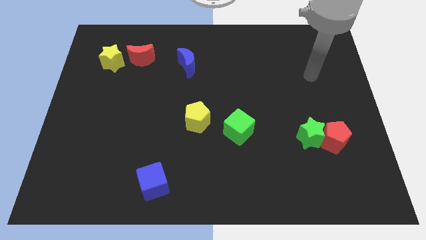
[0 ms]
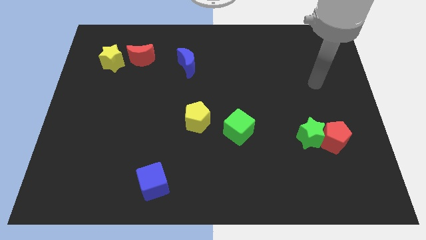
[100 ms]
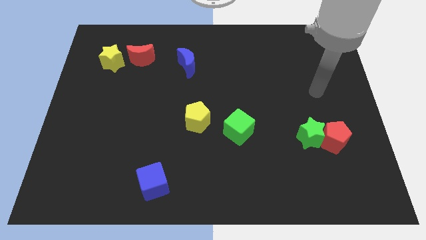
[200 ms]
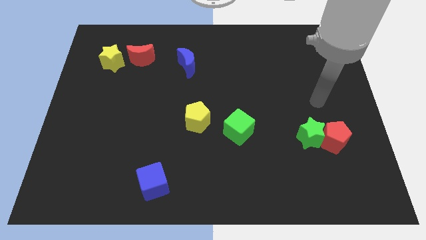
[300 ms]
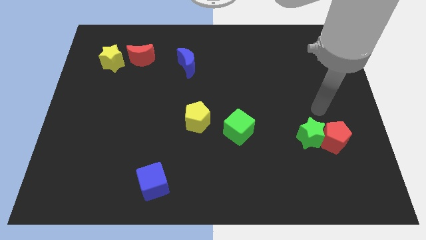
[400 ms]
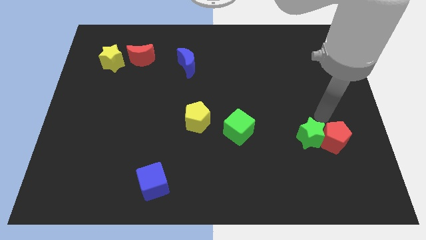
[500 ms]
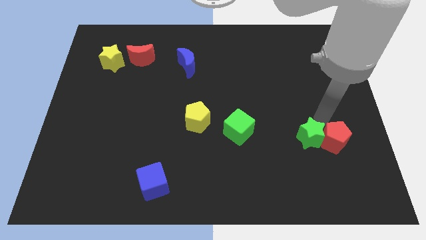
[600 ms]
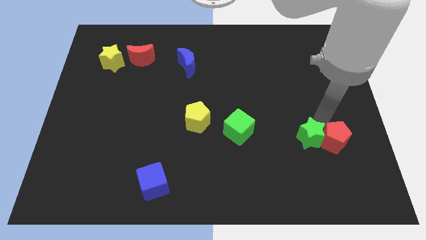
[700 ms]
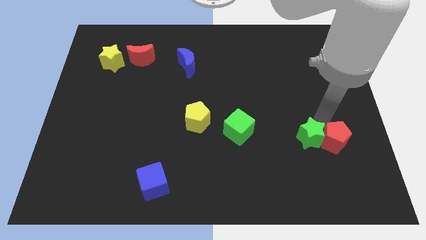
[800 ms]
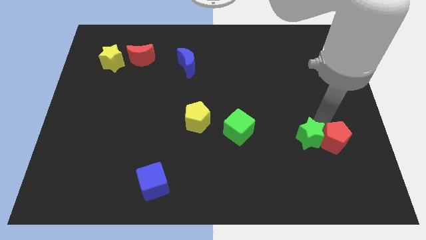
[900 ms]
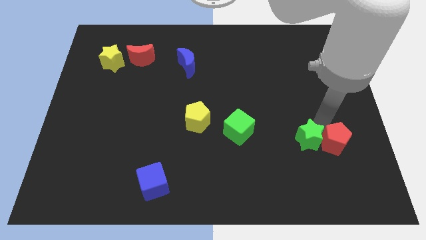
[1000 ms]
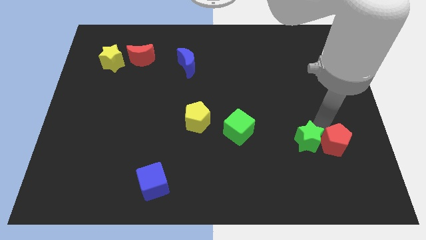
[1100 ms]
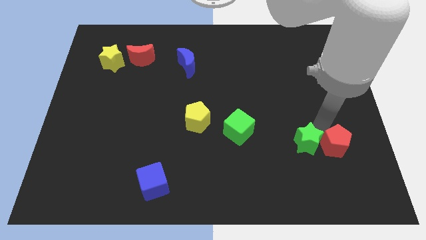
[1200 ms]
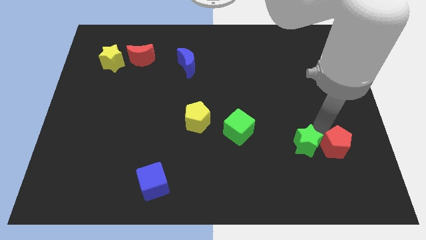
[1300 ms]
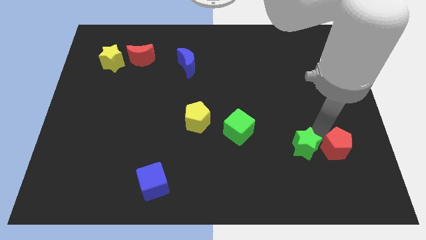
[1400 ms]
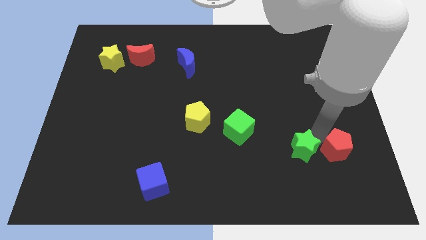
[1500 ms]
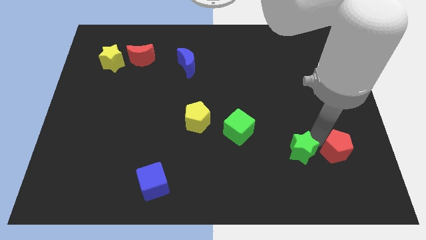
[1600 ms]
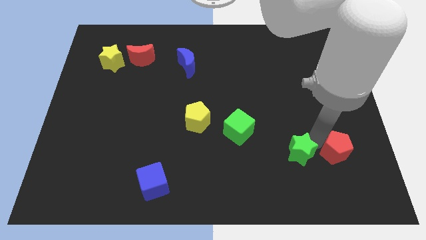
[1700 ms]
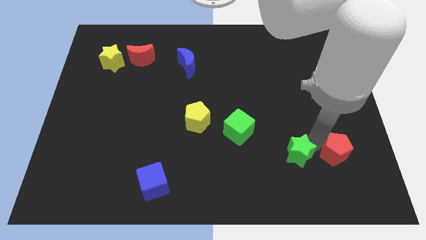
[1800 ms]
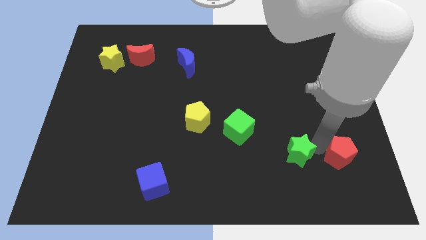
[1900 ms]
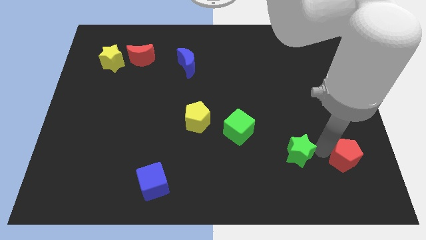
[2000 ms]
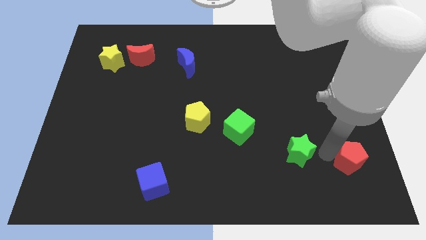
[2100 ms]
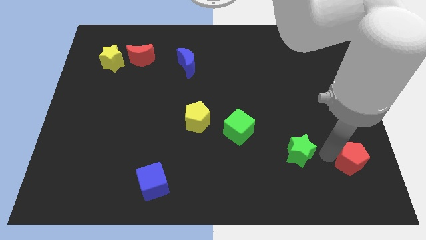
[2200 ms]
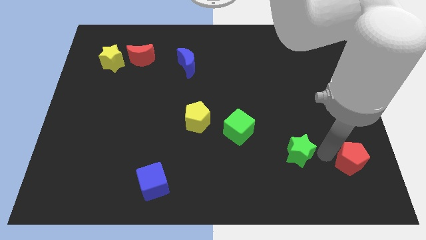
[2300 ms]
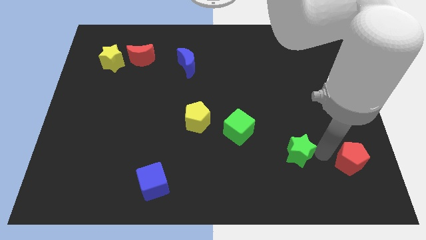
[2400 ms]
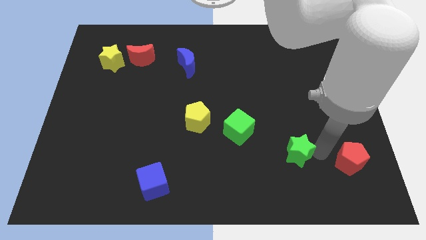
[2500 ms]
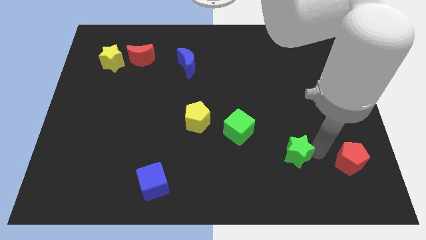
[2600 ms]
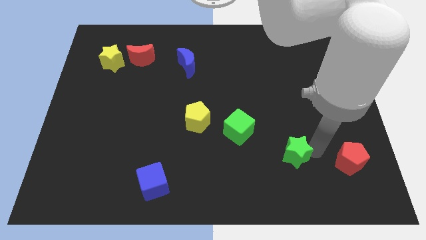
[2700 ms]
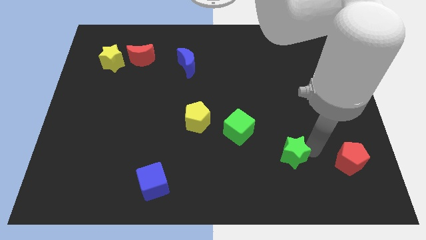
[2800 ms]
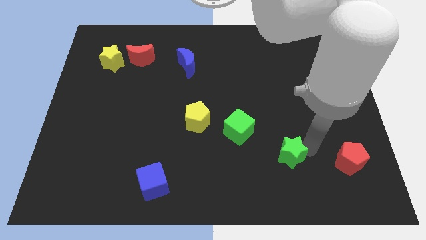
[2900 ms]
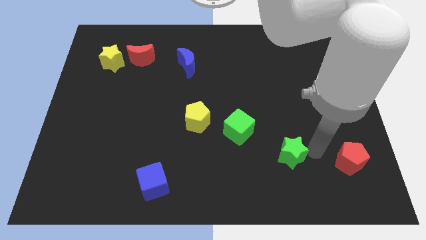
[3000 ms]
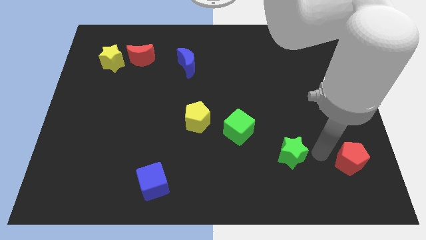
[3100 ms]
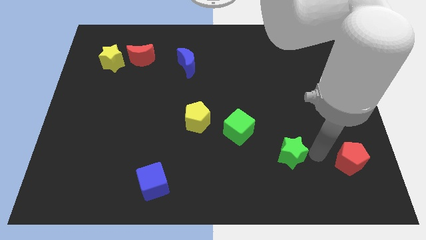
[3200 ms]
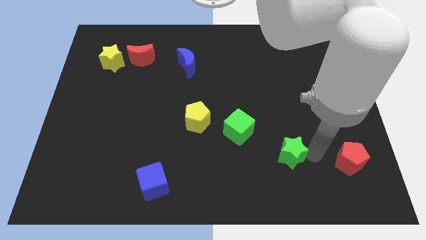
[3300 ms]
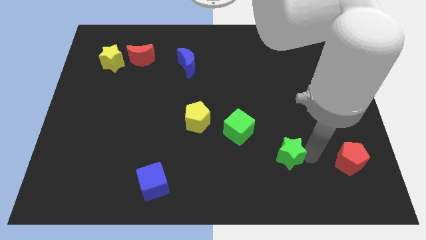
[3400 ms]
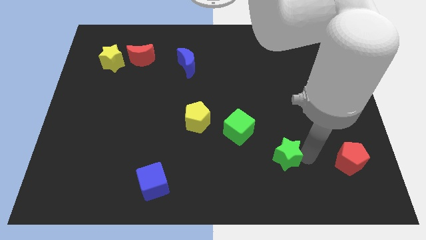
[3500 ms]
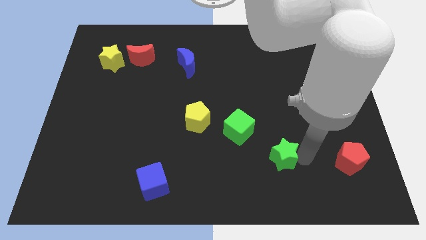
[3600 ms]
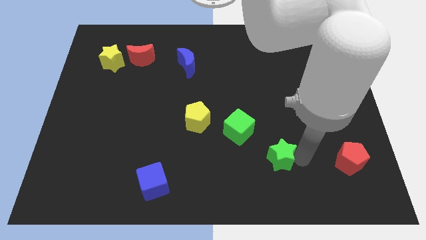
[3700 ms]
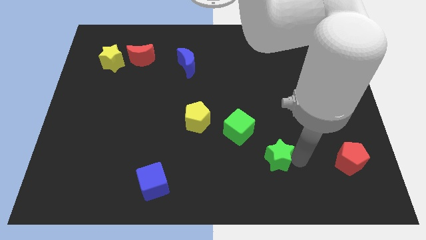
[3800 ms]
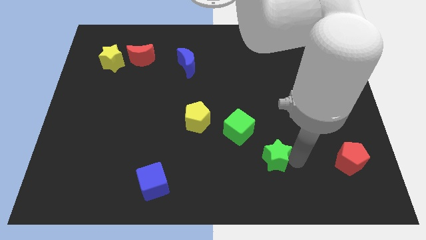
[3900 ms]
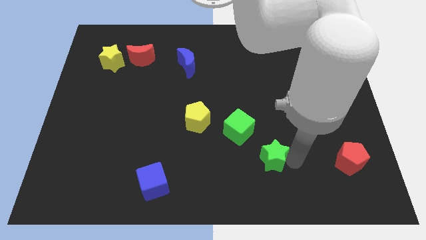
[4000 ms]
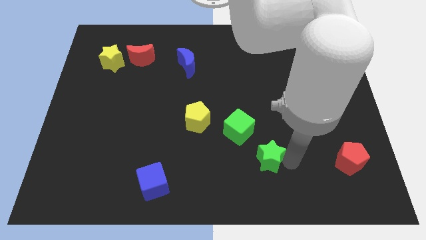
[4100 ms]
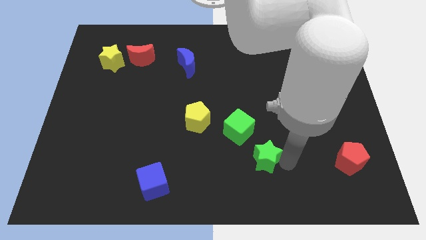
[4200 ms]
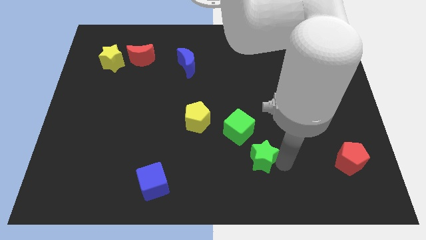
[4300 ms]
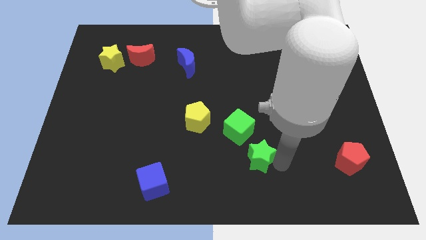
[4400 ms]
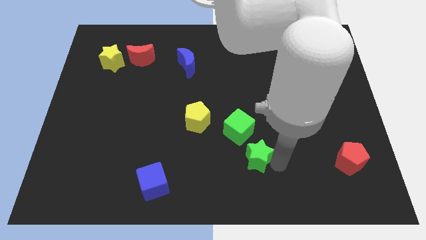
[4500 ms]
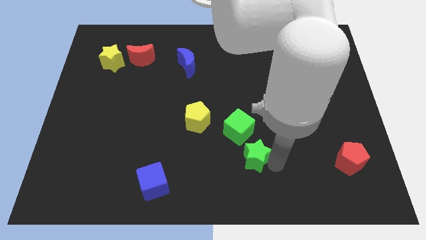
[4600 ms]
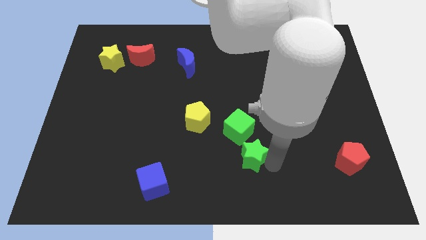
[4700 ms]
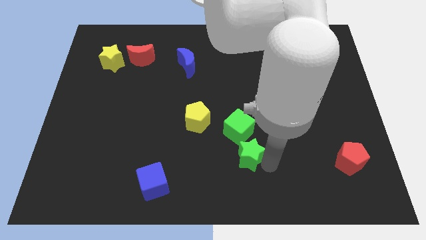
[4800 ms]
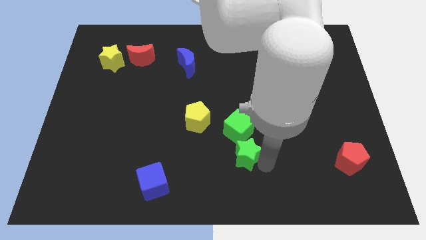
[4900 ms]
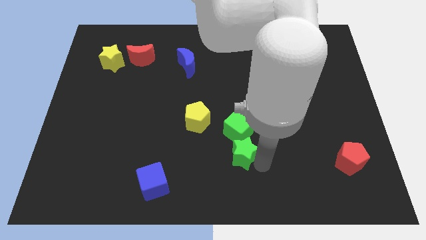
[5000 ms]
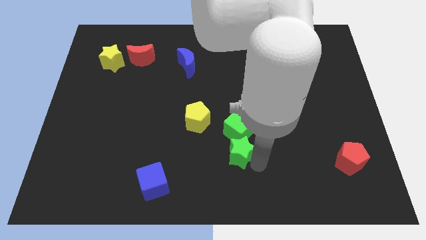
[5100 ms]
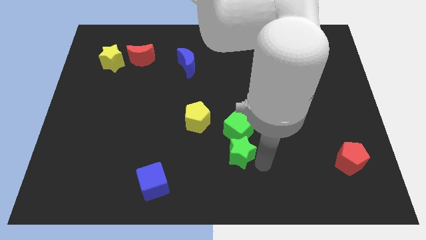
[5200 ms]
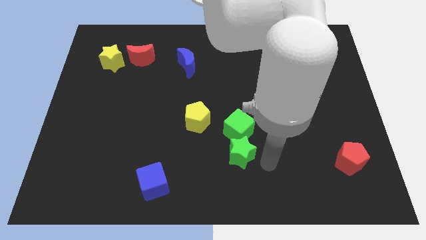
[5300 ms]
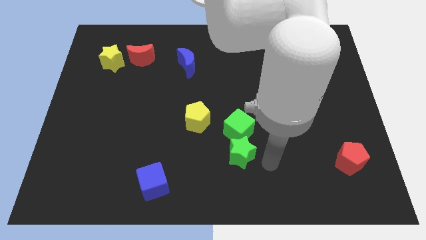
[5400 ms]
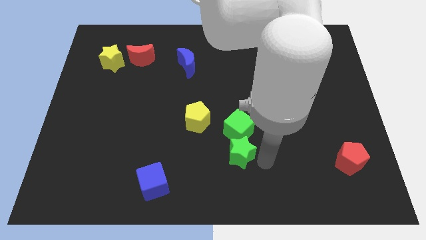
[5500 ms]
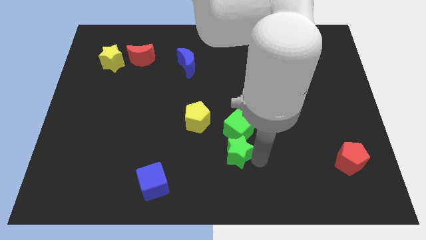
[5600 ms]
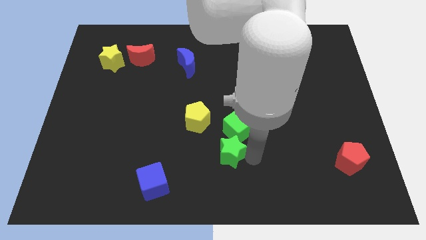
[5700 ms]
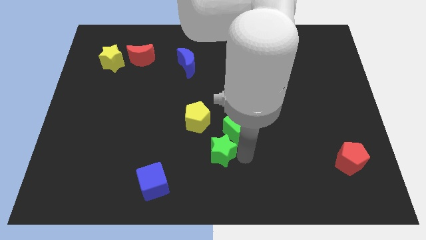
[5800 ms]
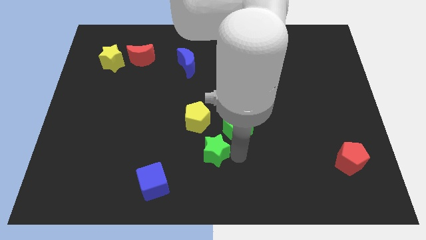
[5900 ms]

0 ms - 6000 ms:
move the green star to the left

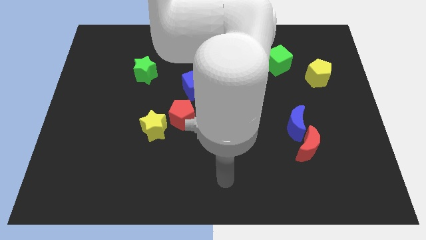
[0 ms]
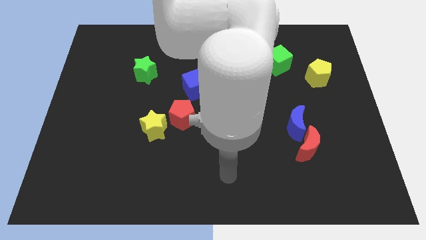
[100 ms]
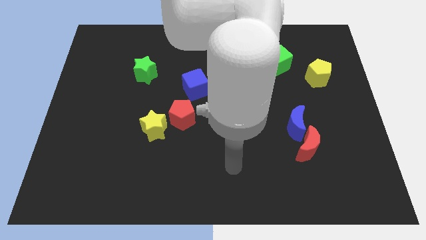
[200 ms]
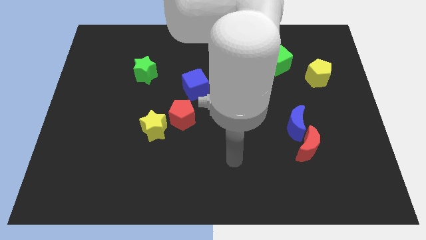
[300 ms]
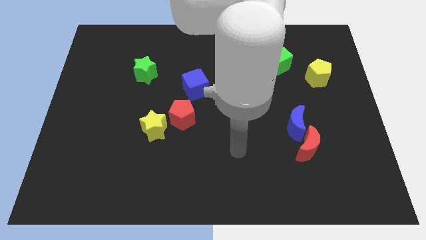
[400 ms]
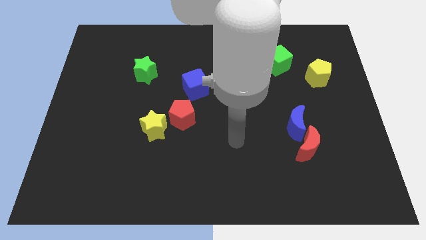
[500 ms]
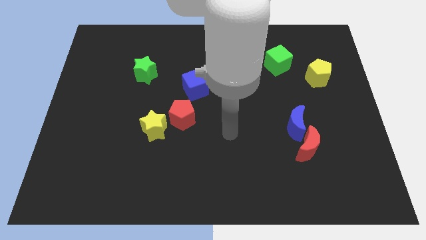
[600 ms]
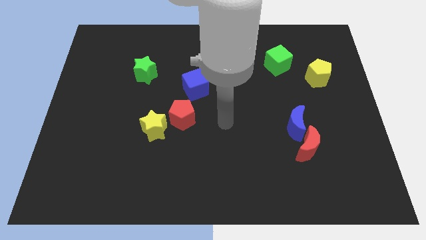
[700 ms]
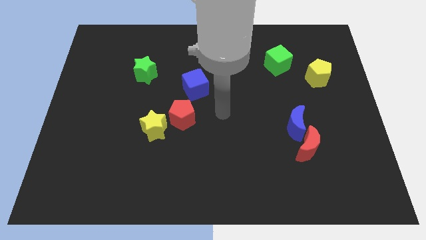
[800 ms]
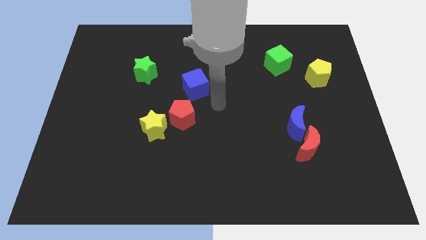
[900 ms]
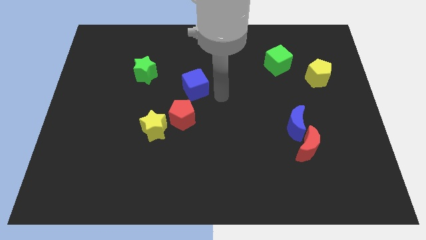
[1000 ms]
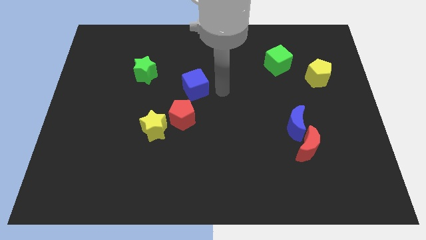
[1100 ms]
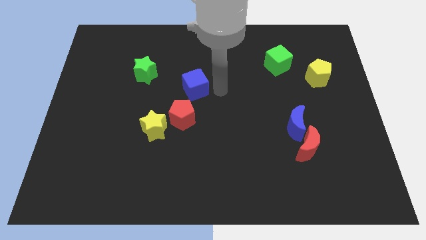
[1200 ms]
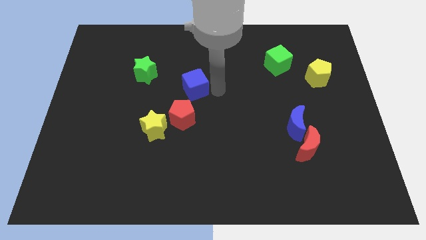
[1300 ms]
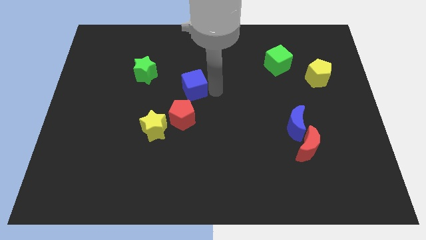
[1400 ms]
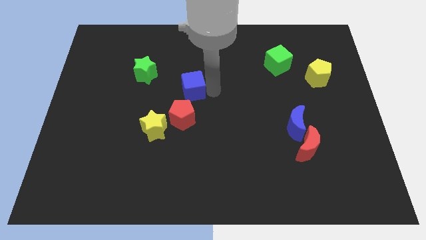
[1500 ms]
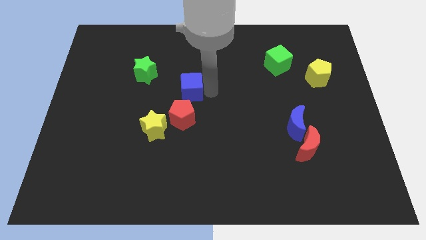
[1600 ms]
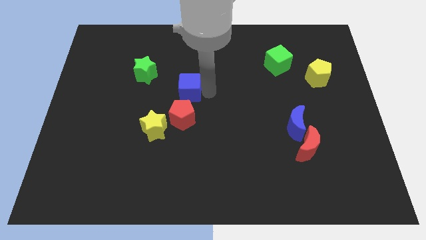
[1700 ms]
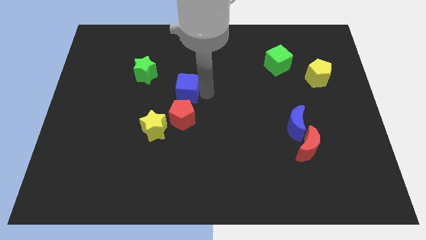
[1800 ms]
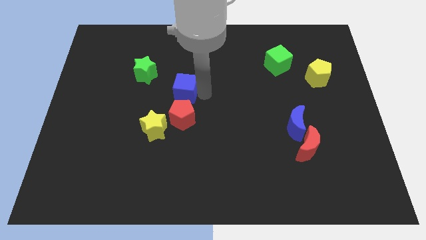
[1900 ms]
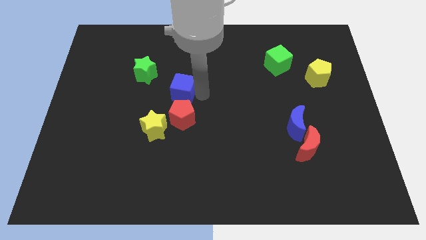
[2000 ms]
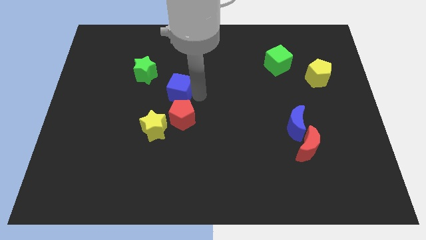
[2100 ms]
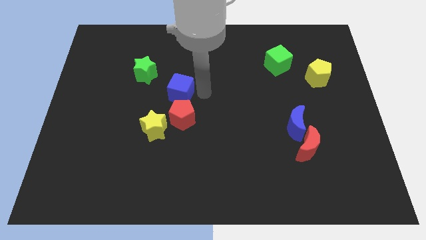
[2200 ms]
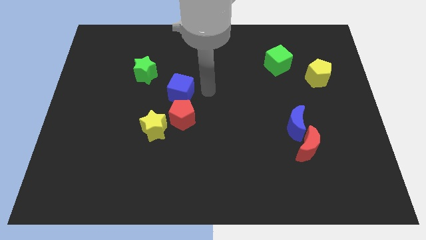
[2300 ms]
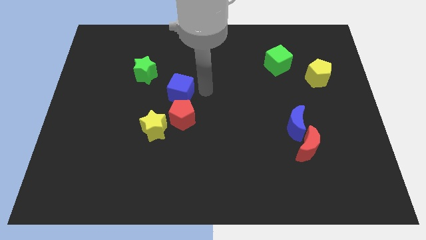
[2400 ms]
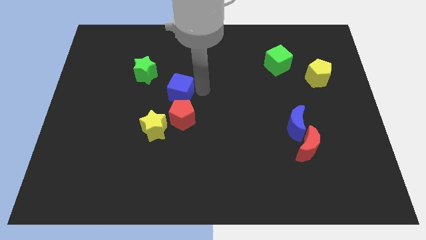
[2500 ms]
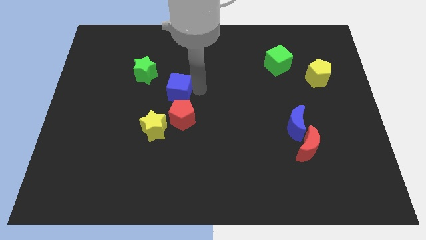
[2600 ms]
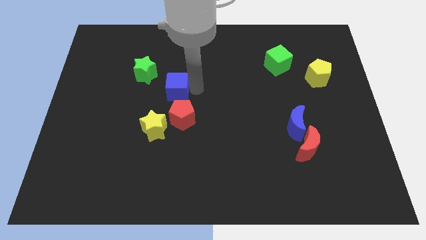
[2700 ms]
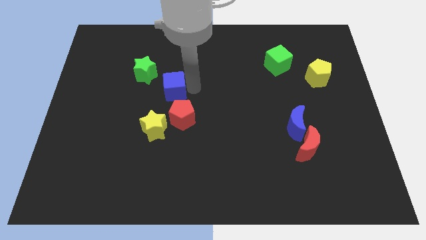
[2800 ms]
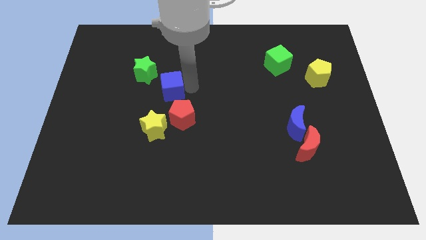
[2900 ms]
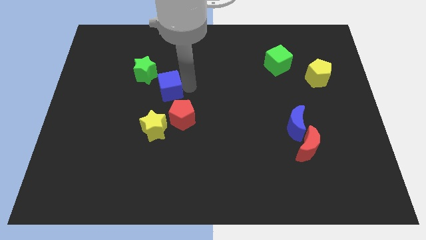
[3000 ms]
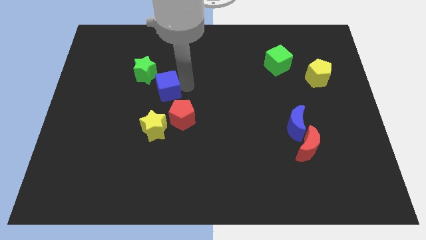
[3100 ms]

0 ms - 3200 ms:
push the blue cube to the left somewhat
